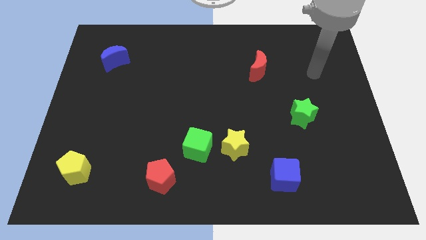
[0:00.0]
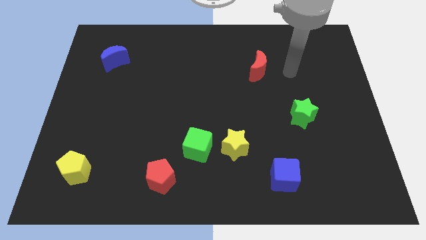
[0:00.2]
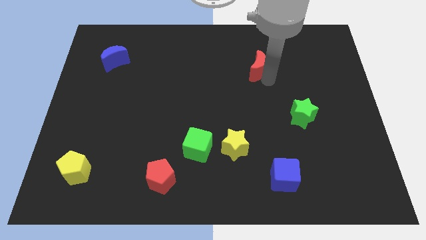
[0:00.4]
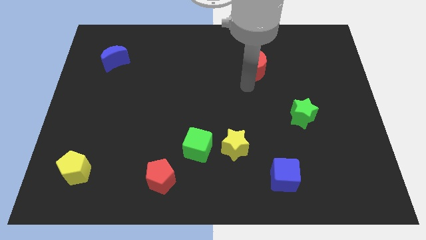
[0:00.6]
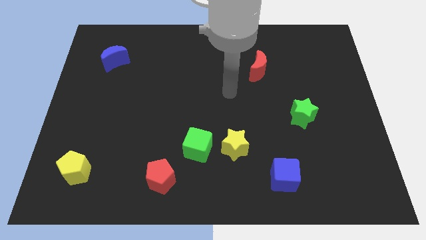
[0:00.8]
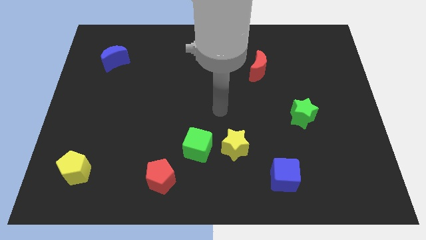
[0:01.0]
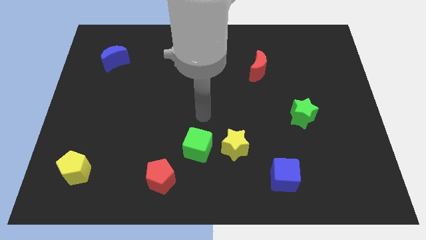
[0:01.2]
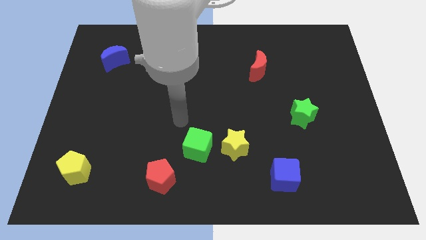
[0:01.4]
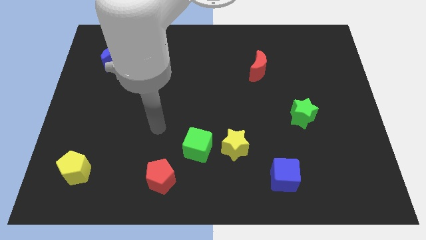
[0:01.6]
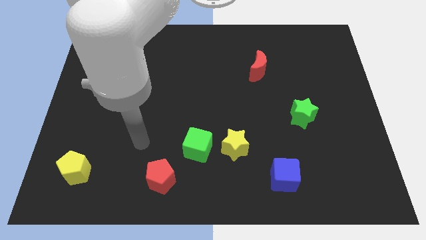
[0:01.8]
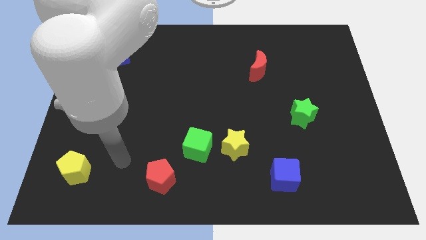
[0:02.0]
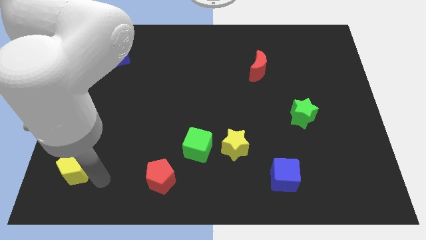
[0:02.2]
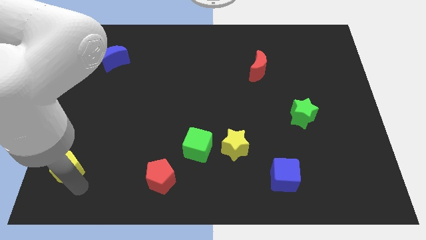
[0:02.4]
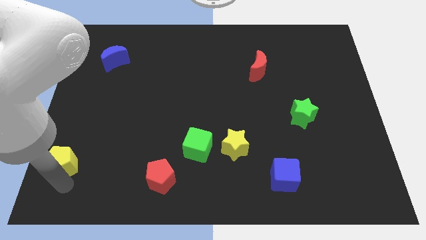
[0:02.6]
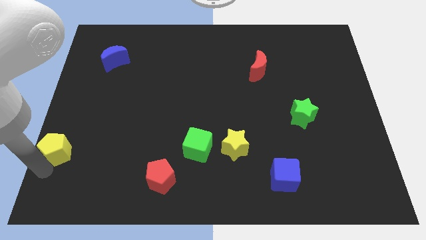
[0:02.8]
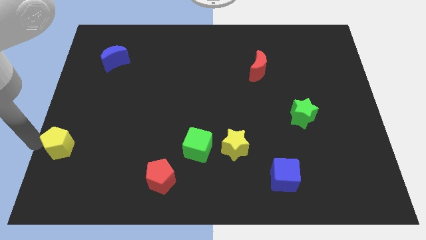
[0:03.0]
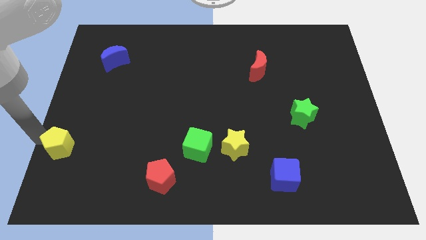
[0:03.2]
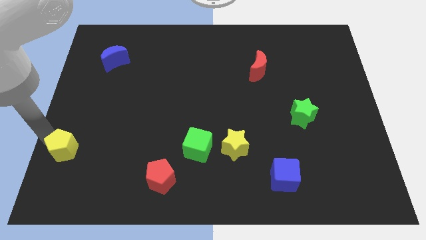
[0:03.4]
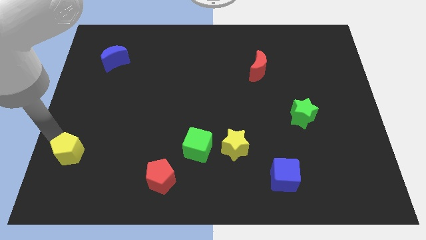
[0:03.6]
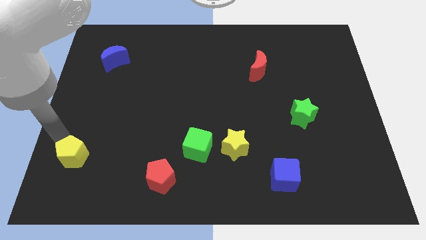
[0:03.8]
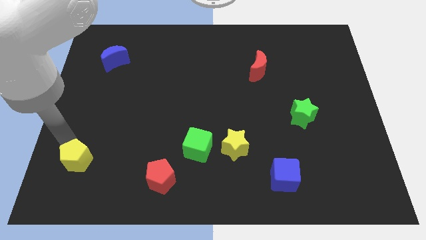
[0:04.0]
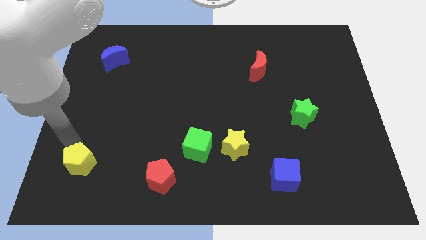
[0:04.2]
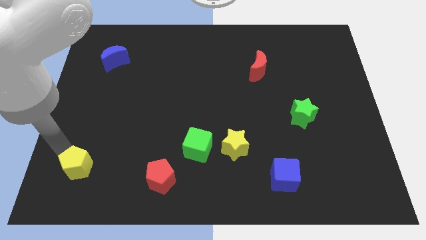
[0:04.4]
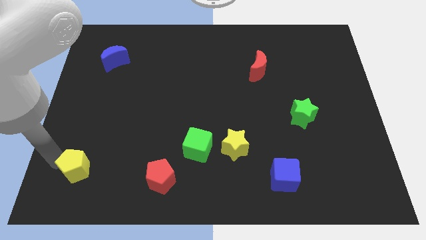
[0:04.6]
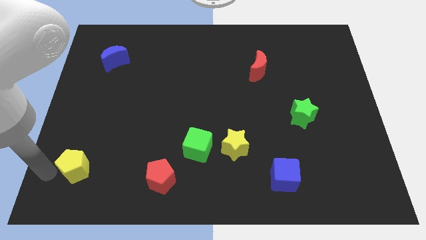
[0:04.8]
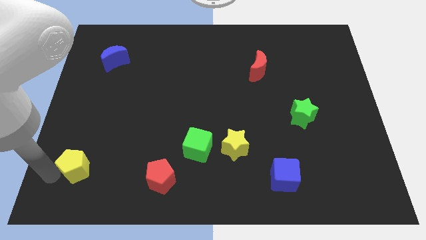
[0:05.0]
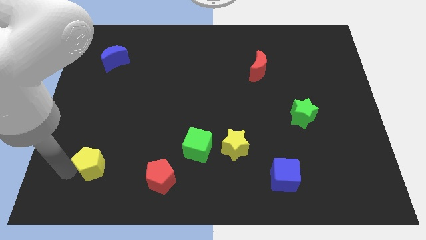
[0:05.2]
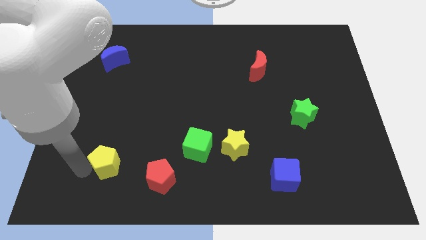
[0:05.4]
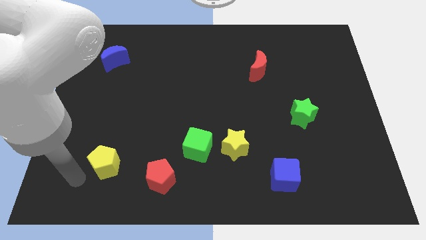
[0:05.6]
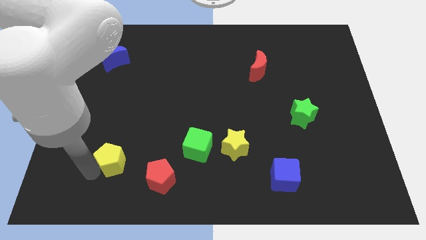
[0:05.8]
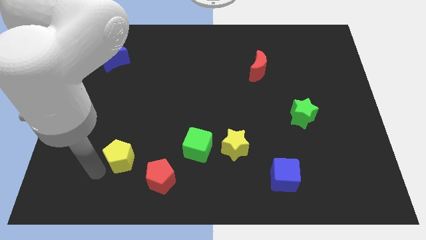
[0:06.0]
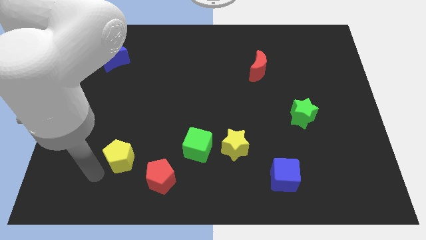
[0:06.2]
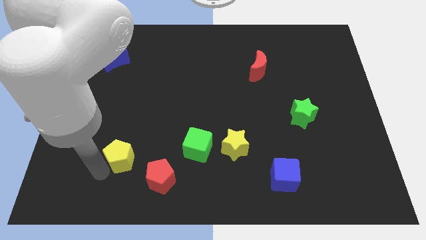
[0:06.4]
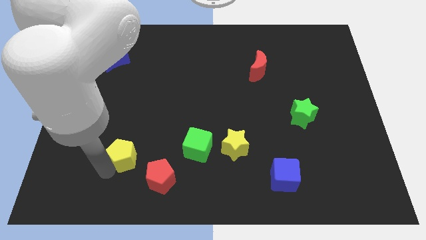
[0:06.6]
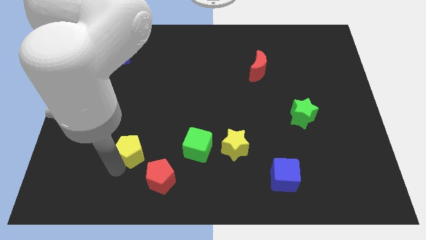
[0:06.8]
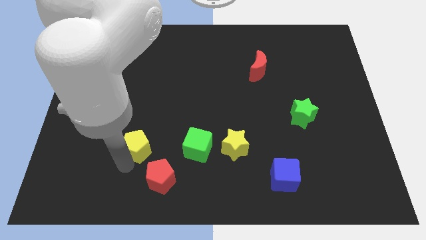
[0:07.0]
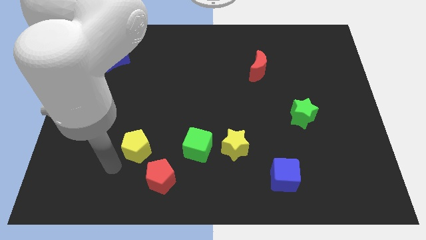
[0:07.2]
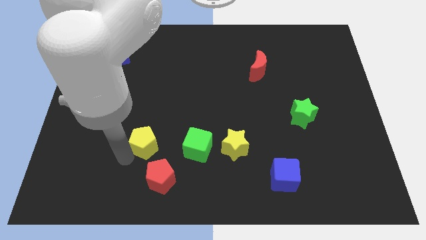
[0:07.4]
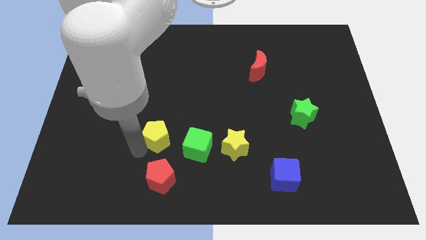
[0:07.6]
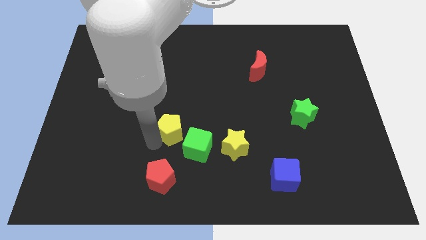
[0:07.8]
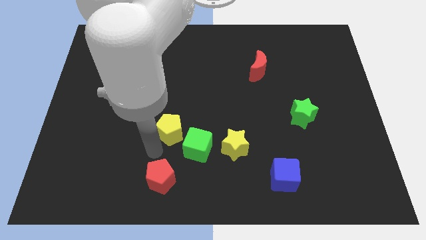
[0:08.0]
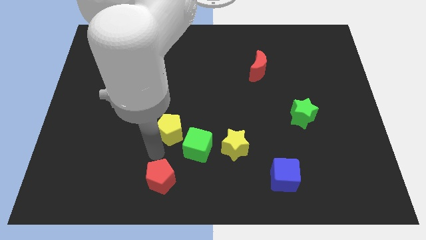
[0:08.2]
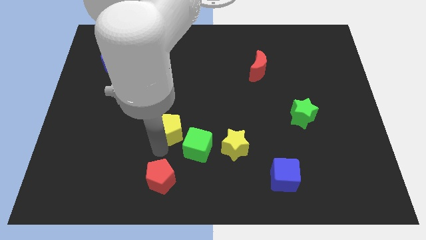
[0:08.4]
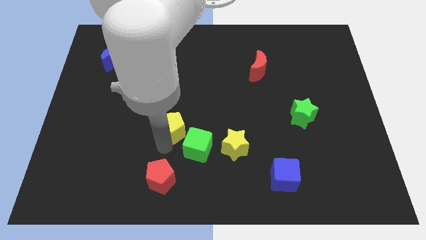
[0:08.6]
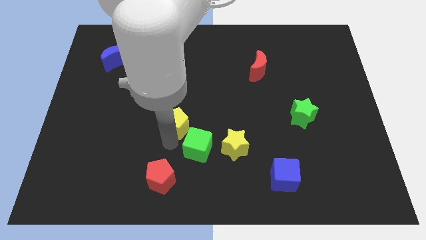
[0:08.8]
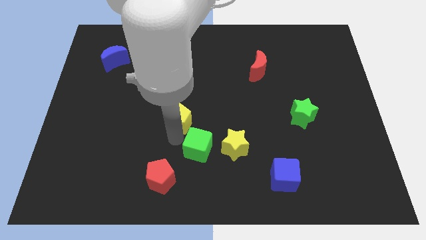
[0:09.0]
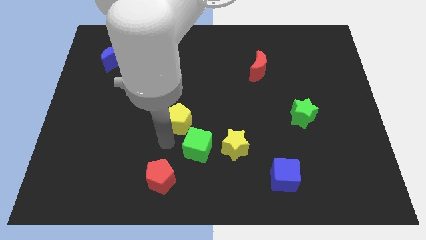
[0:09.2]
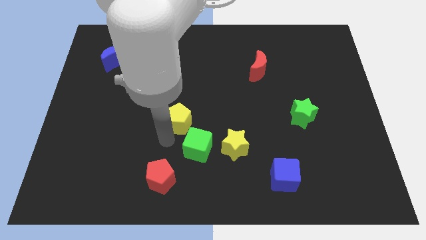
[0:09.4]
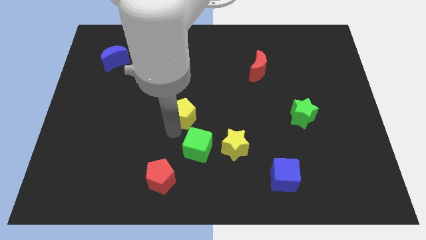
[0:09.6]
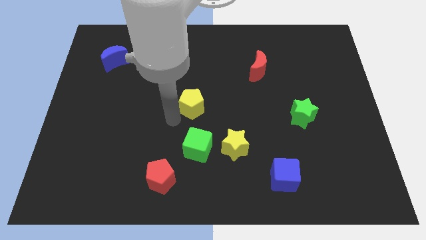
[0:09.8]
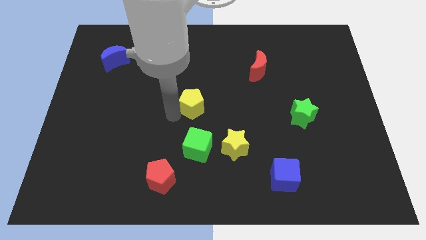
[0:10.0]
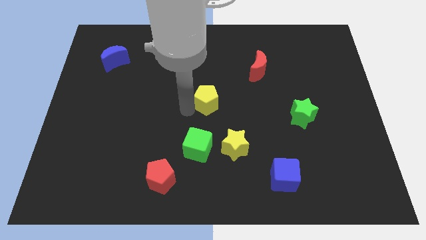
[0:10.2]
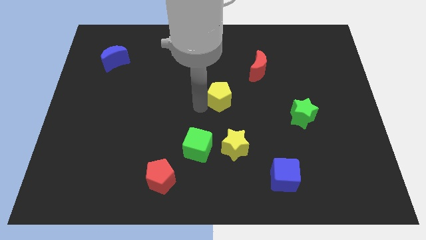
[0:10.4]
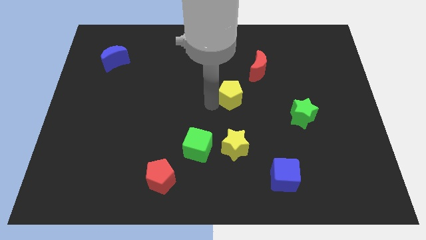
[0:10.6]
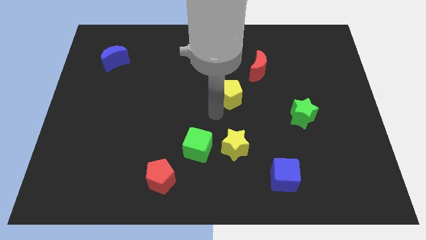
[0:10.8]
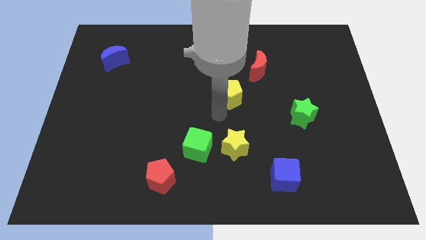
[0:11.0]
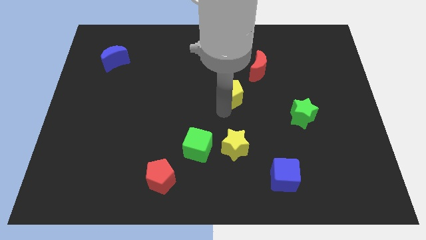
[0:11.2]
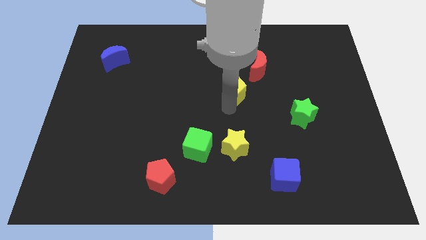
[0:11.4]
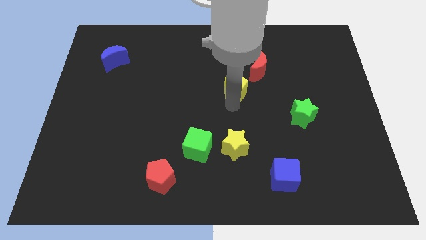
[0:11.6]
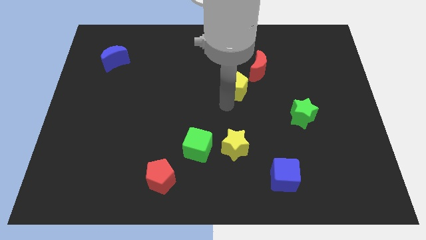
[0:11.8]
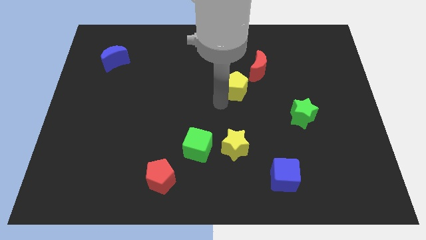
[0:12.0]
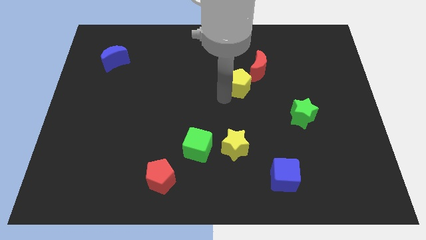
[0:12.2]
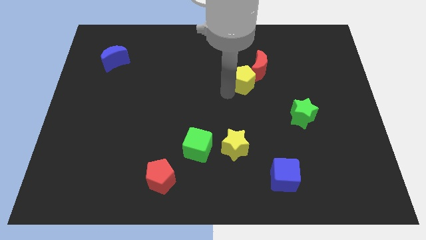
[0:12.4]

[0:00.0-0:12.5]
put the yellow pentagon next to the red moon

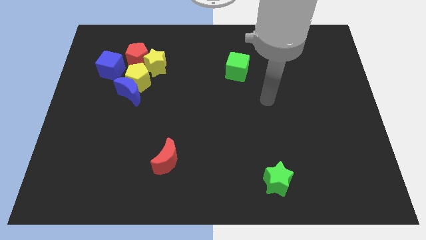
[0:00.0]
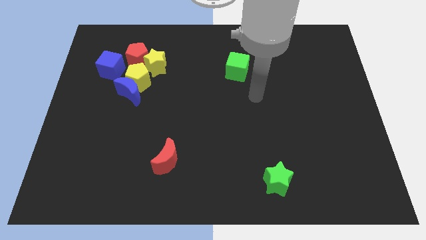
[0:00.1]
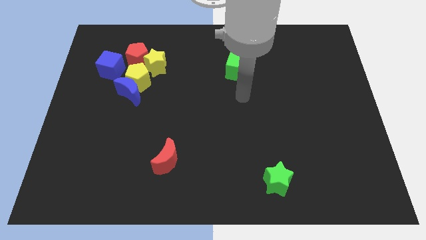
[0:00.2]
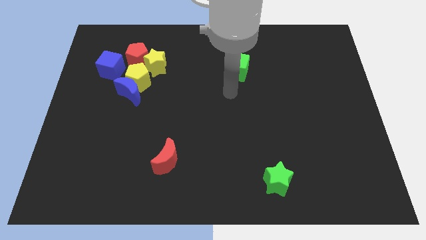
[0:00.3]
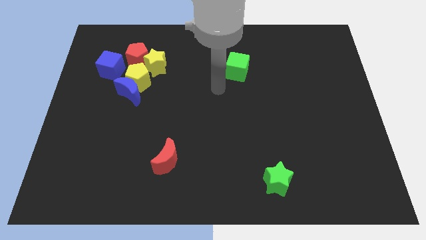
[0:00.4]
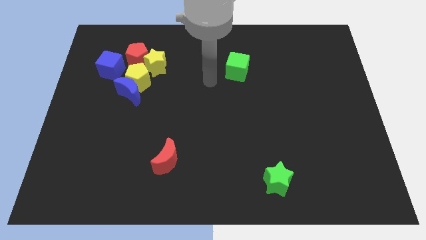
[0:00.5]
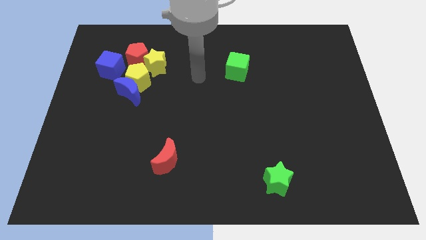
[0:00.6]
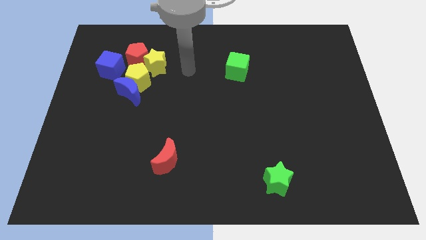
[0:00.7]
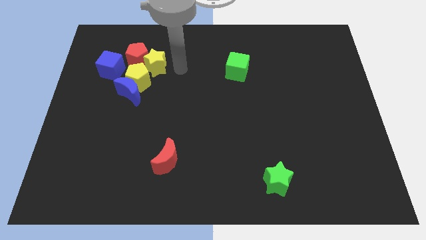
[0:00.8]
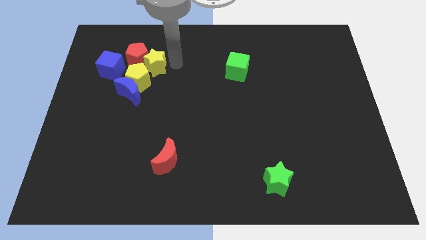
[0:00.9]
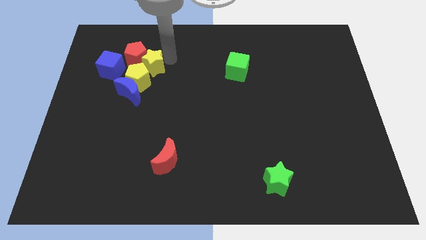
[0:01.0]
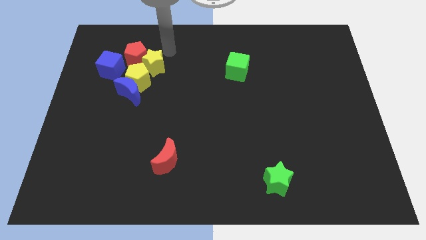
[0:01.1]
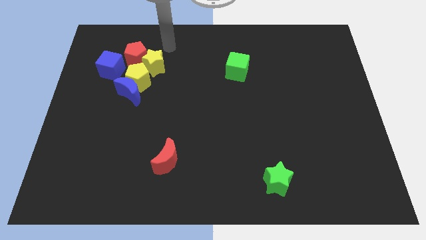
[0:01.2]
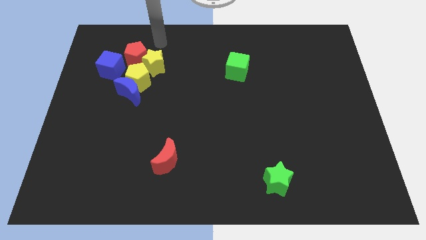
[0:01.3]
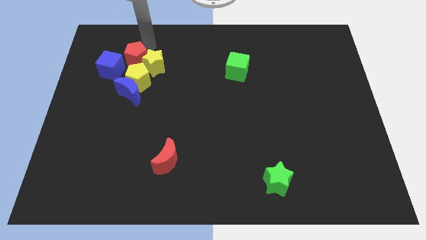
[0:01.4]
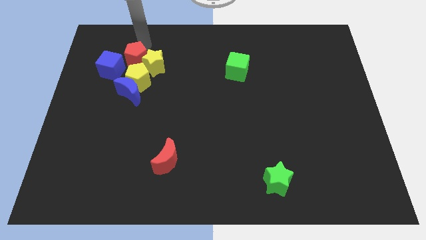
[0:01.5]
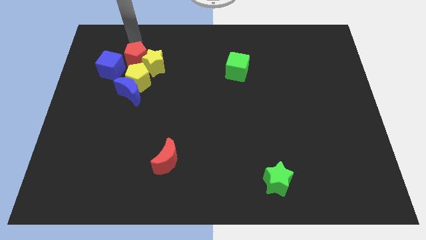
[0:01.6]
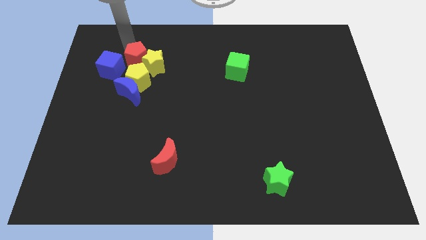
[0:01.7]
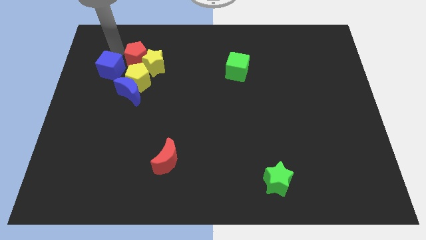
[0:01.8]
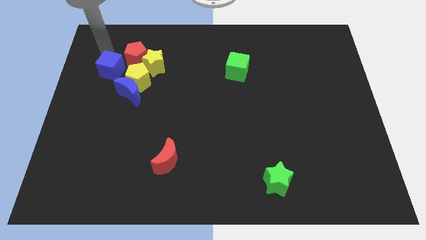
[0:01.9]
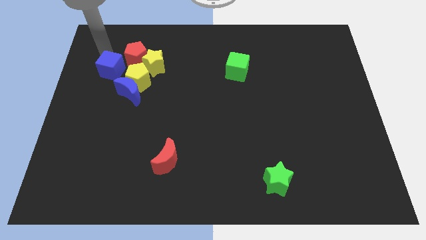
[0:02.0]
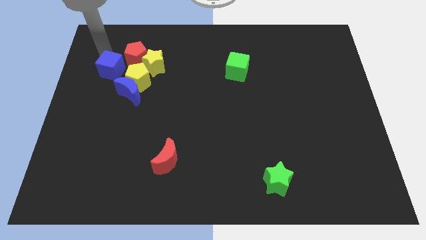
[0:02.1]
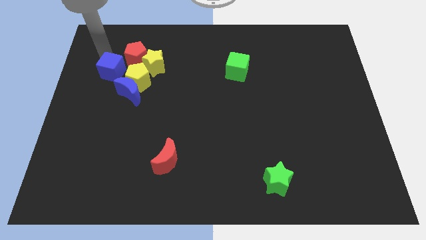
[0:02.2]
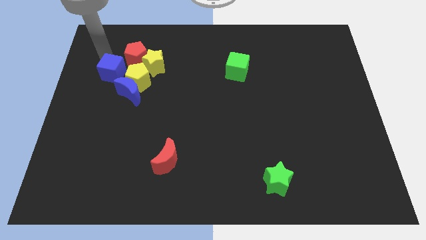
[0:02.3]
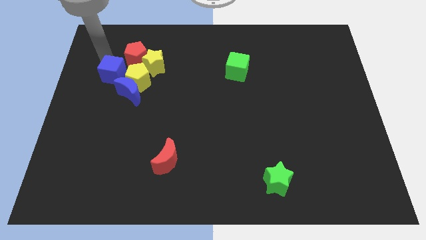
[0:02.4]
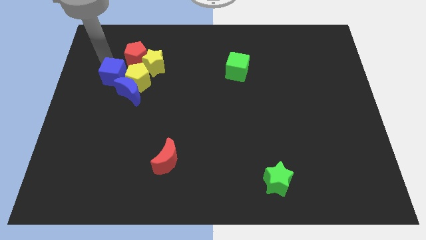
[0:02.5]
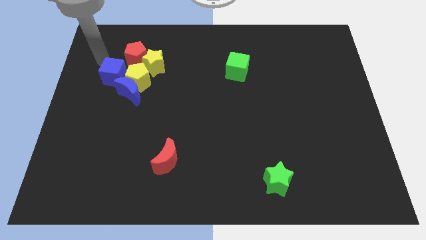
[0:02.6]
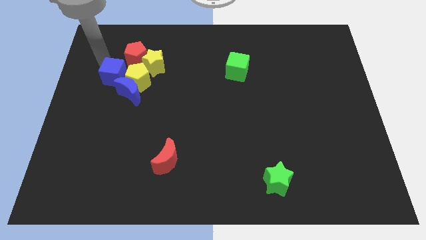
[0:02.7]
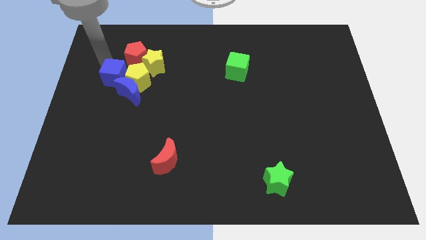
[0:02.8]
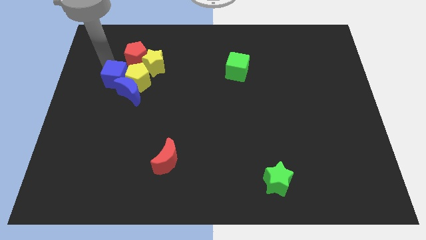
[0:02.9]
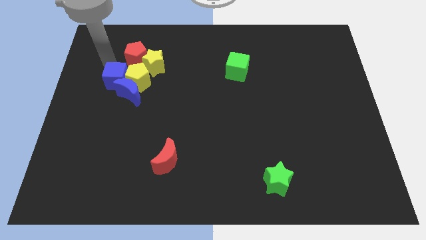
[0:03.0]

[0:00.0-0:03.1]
push the blue cube next to the blue moon
